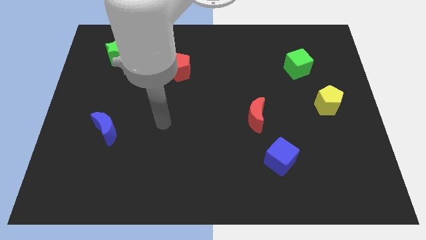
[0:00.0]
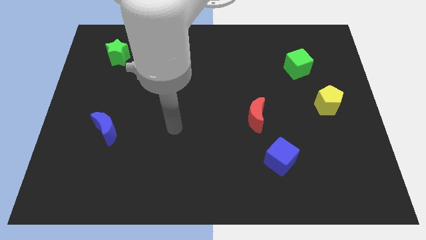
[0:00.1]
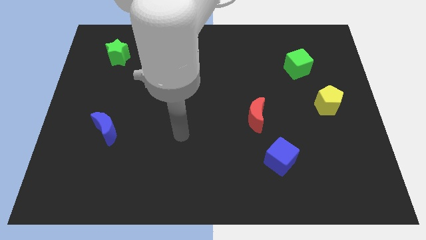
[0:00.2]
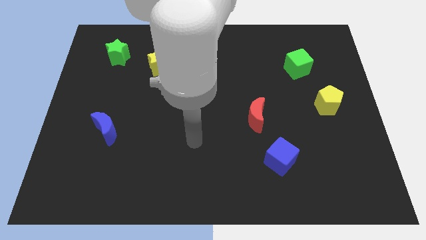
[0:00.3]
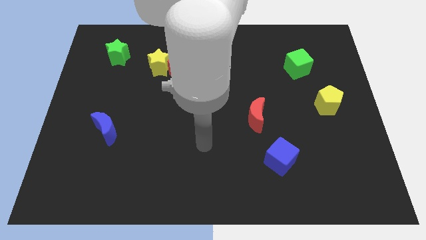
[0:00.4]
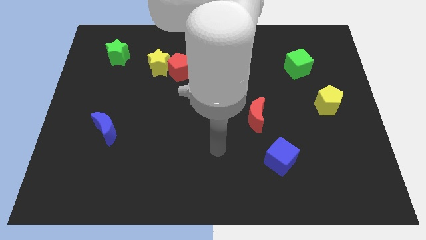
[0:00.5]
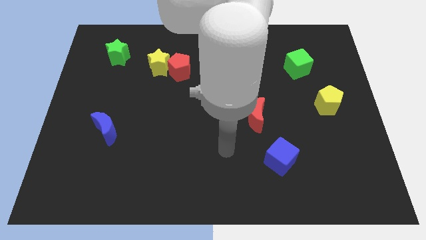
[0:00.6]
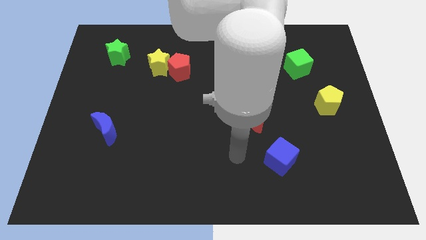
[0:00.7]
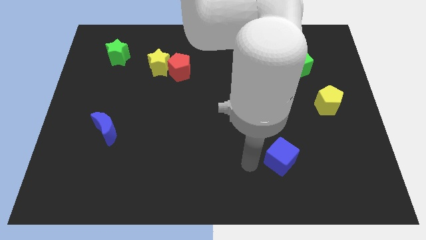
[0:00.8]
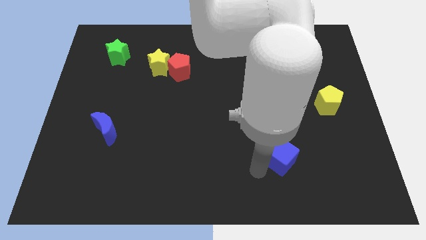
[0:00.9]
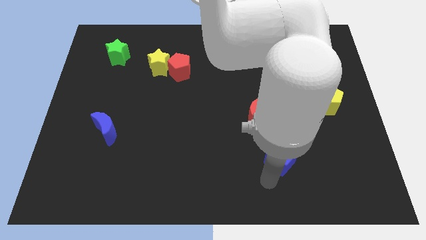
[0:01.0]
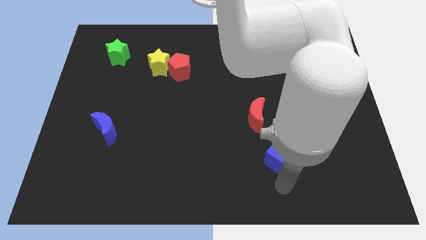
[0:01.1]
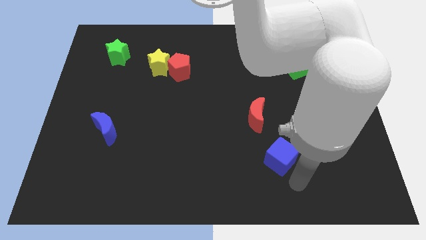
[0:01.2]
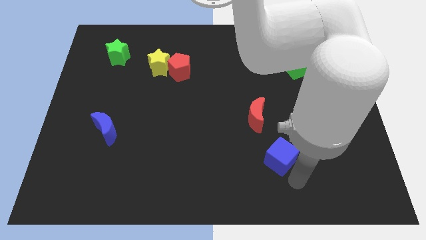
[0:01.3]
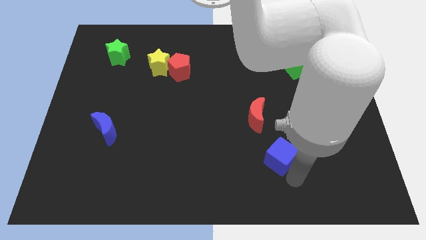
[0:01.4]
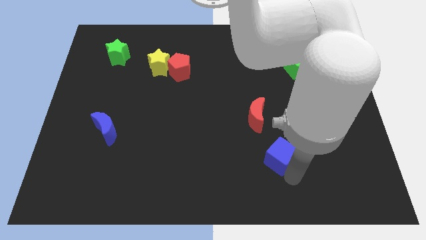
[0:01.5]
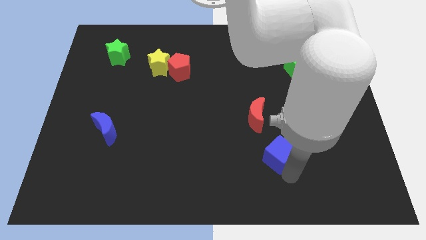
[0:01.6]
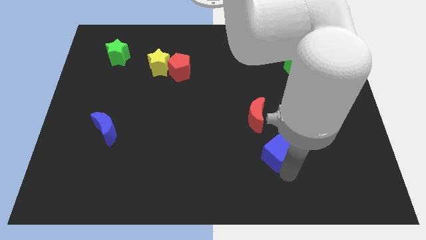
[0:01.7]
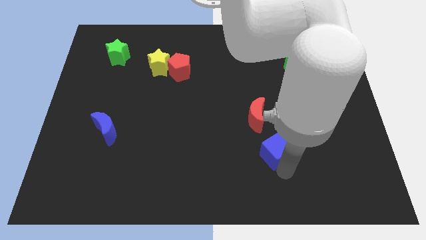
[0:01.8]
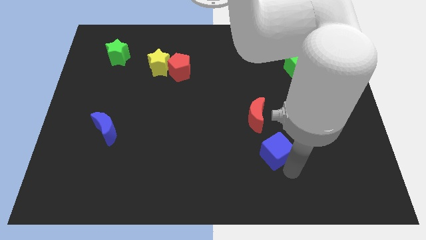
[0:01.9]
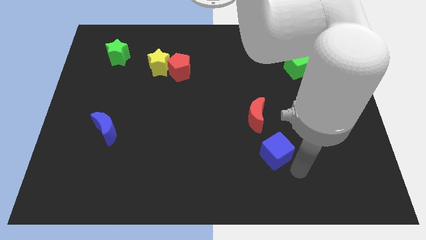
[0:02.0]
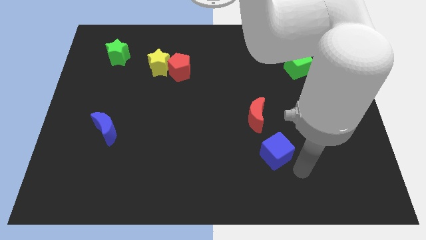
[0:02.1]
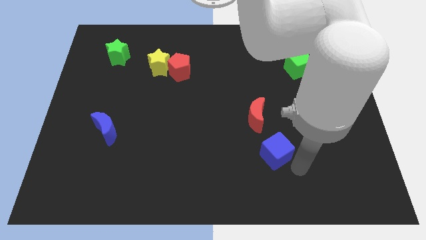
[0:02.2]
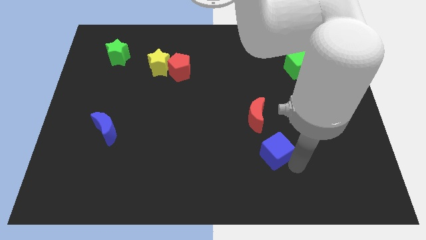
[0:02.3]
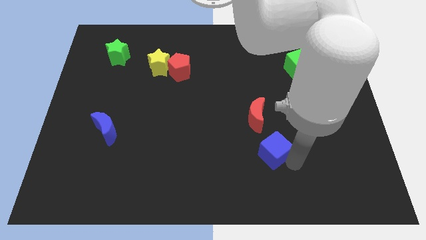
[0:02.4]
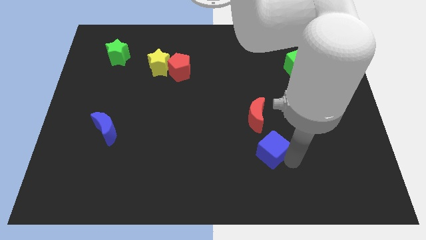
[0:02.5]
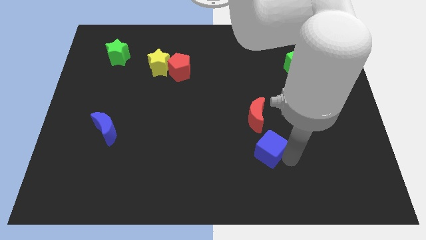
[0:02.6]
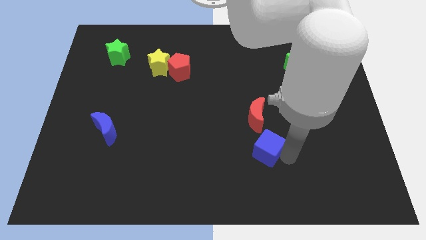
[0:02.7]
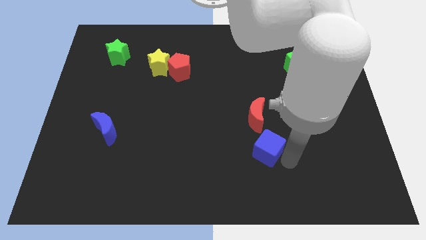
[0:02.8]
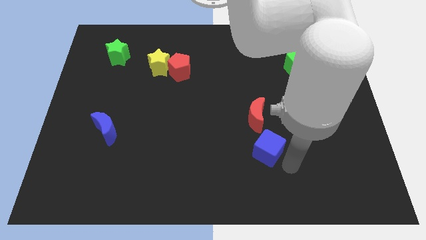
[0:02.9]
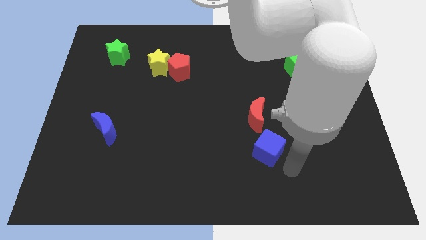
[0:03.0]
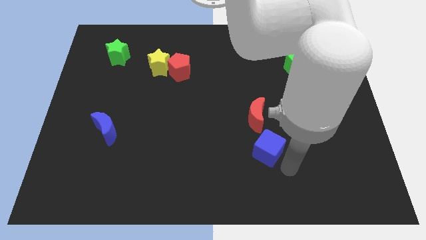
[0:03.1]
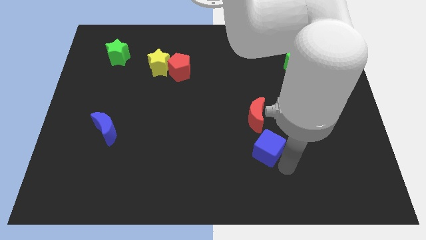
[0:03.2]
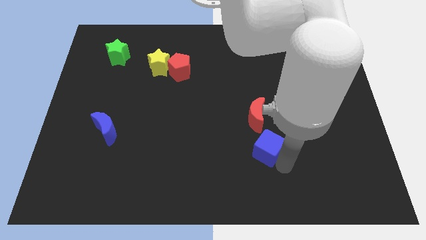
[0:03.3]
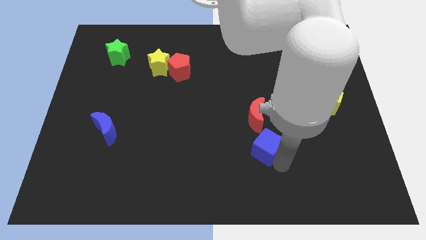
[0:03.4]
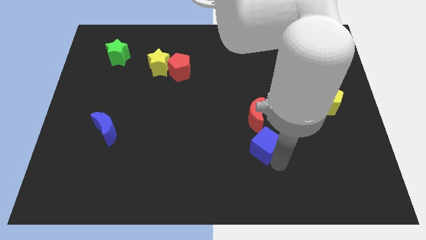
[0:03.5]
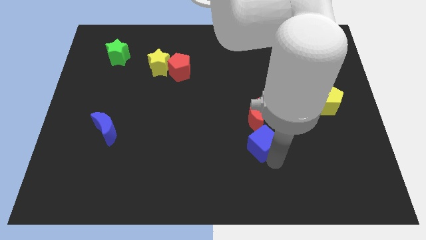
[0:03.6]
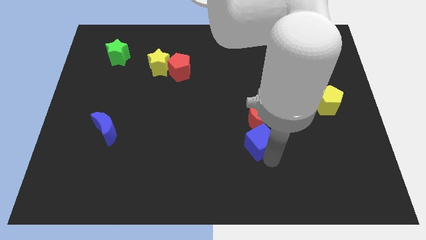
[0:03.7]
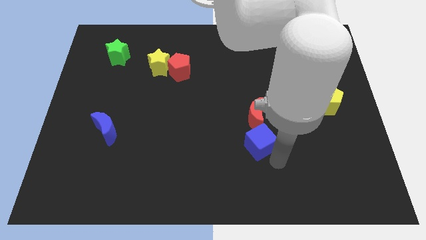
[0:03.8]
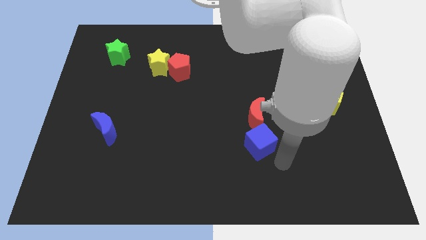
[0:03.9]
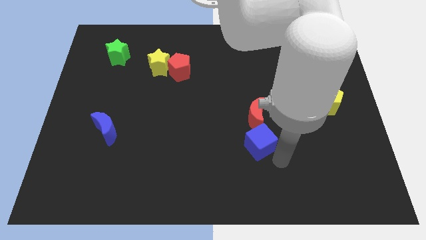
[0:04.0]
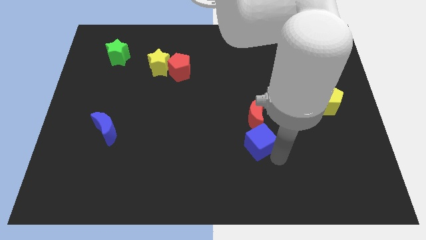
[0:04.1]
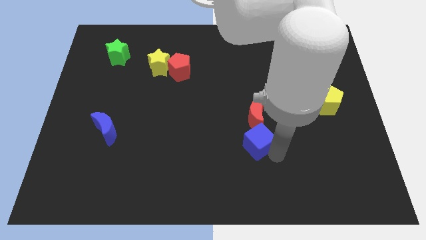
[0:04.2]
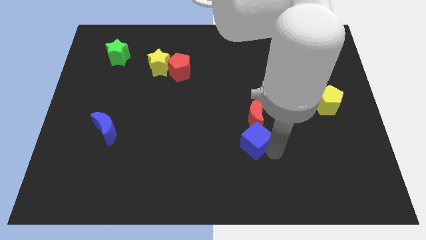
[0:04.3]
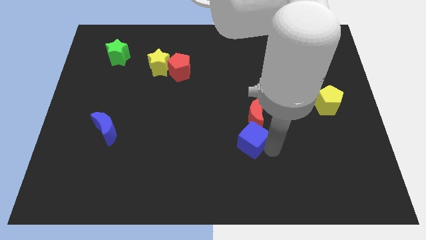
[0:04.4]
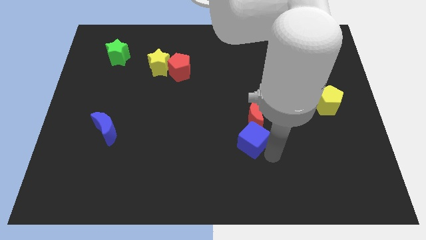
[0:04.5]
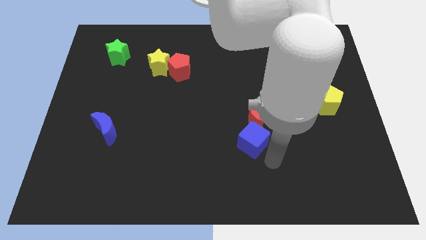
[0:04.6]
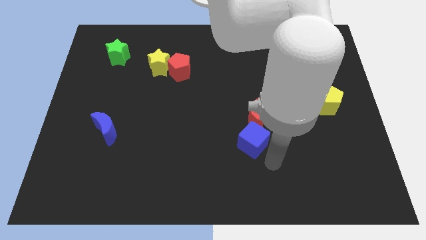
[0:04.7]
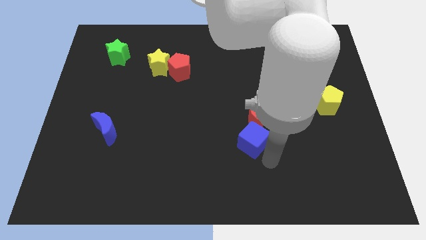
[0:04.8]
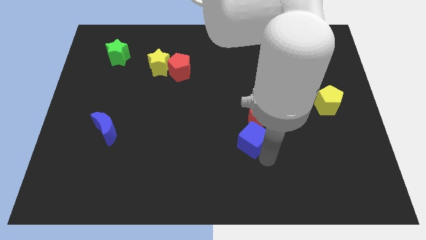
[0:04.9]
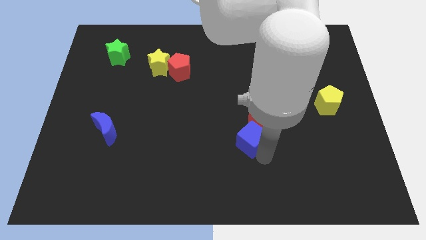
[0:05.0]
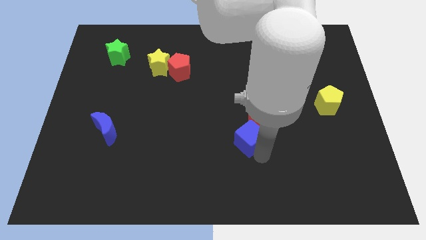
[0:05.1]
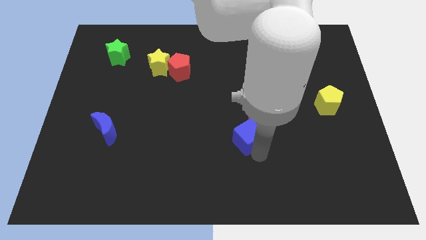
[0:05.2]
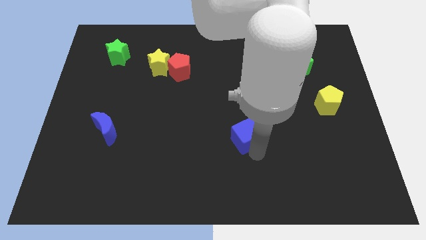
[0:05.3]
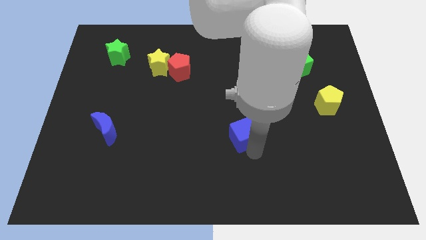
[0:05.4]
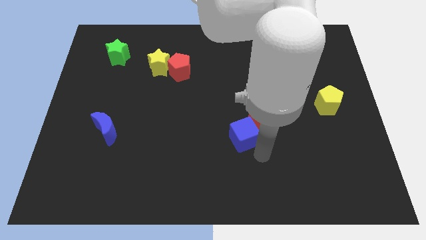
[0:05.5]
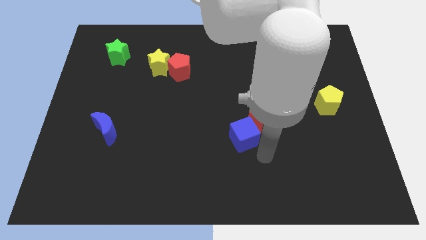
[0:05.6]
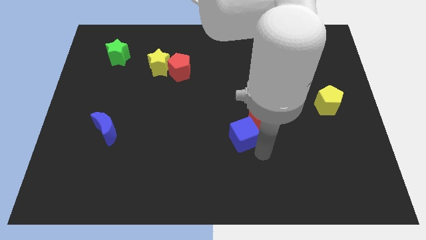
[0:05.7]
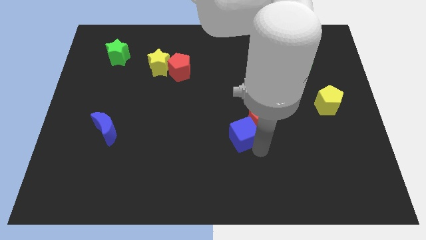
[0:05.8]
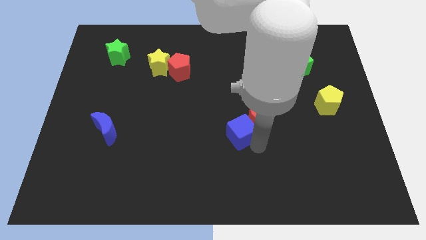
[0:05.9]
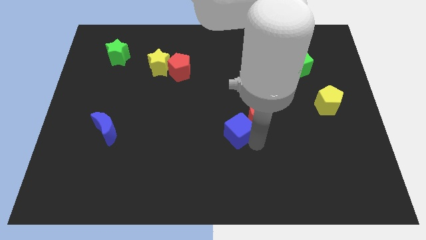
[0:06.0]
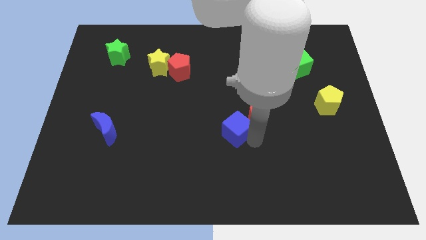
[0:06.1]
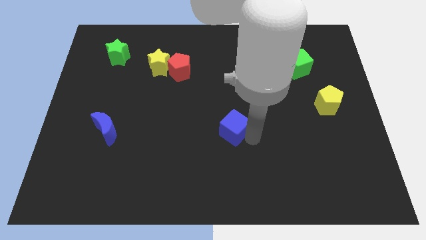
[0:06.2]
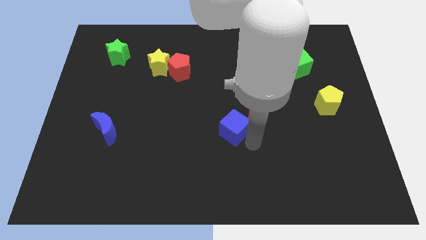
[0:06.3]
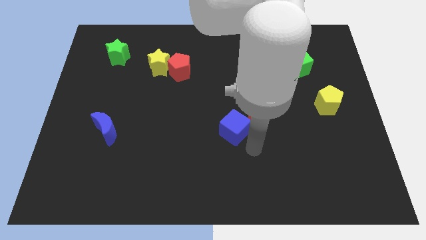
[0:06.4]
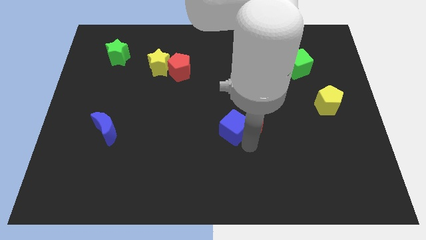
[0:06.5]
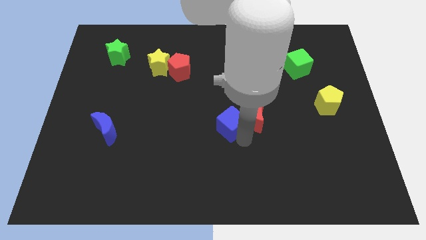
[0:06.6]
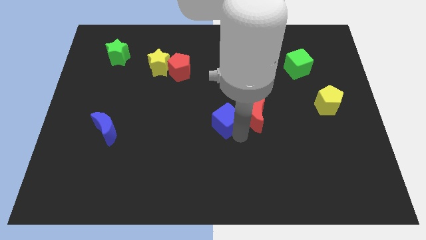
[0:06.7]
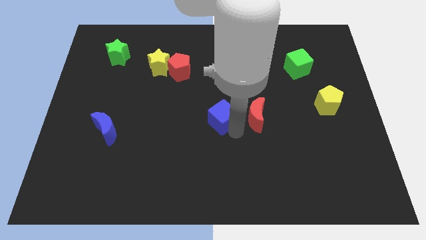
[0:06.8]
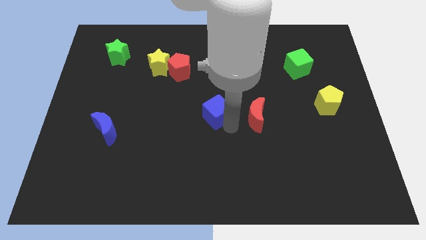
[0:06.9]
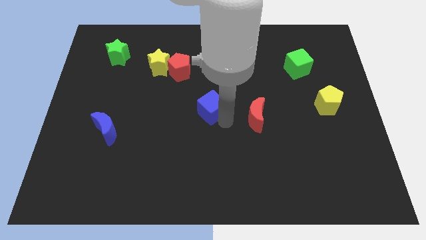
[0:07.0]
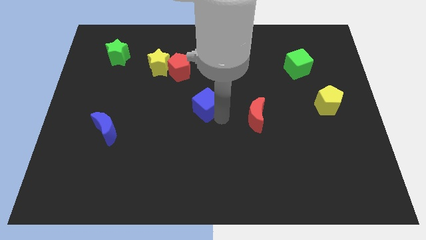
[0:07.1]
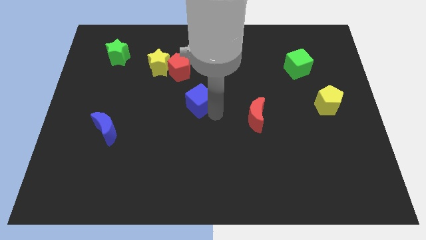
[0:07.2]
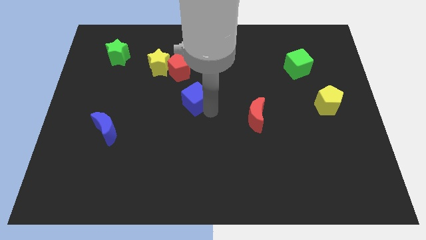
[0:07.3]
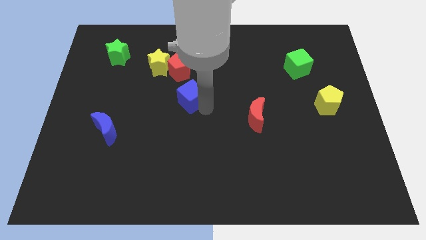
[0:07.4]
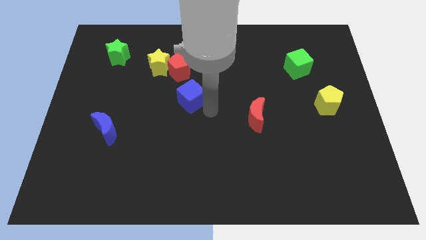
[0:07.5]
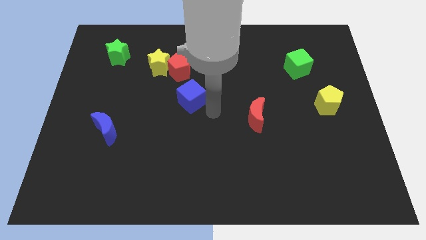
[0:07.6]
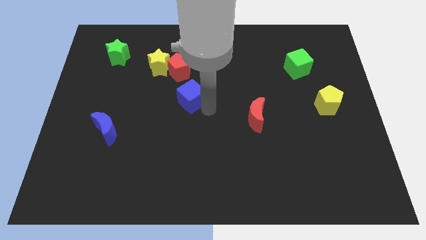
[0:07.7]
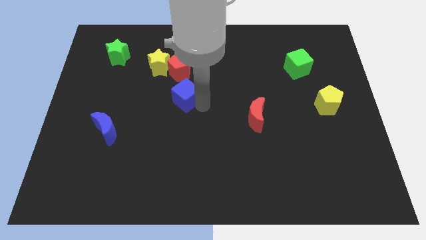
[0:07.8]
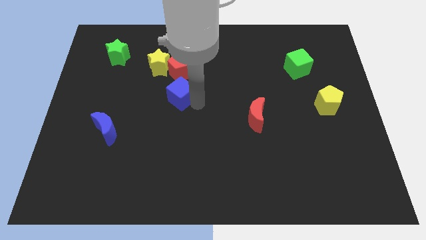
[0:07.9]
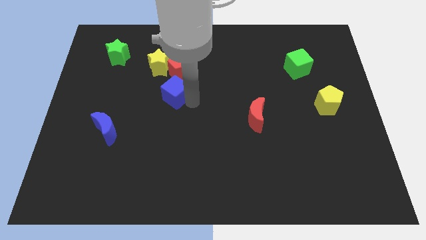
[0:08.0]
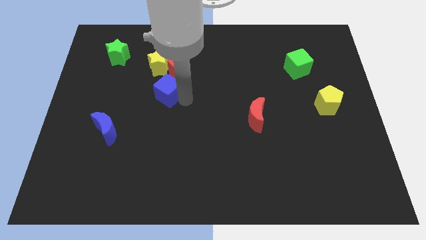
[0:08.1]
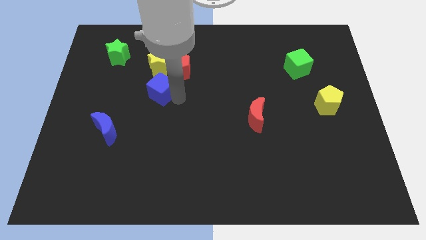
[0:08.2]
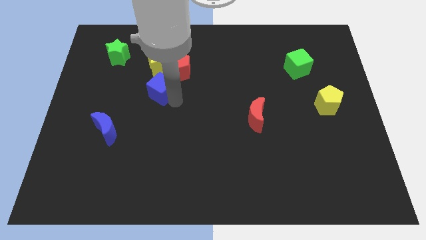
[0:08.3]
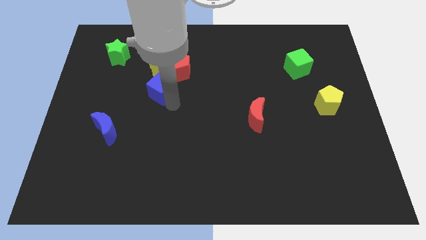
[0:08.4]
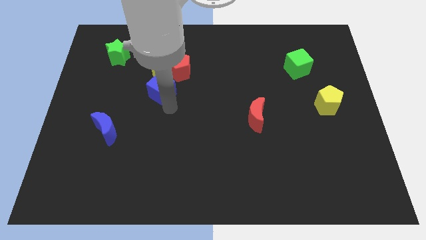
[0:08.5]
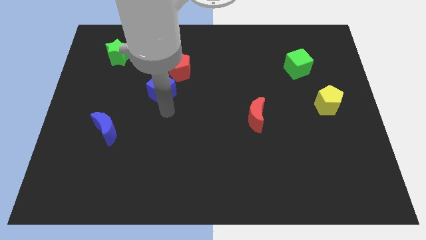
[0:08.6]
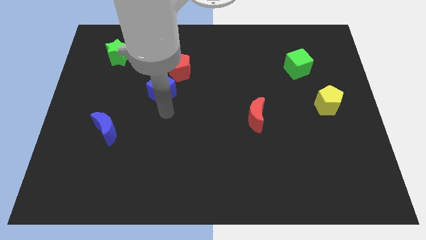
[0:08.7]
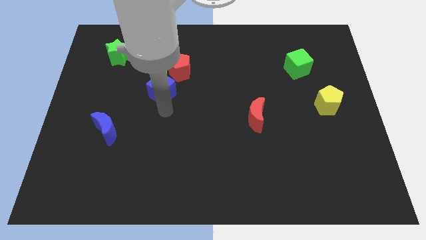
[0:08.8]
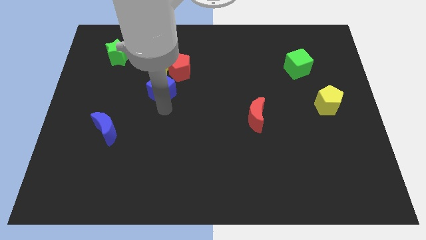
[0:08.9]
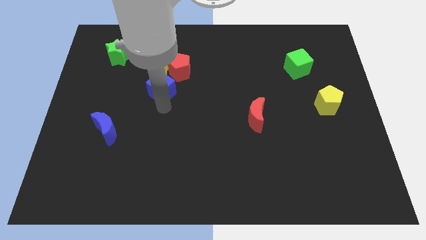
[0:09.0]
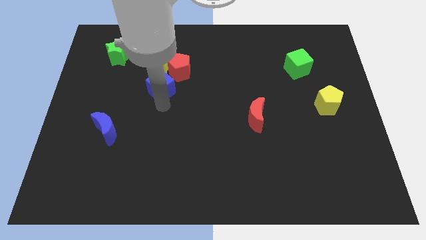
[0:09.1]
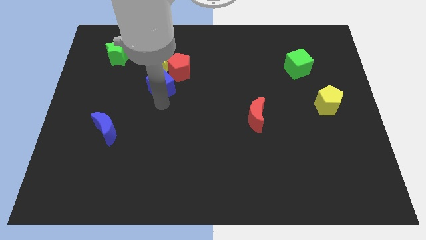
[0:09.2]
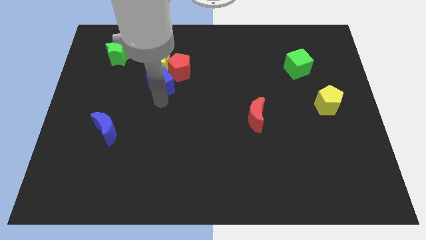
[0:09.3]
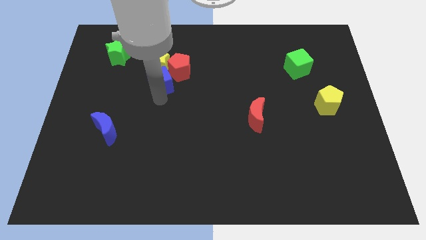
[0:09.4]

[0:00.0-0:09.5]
slide the blue cube close to the yellow star
